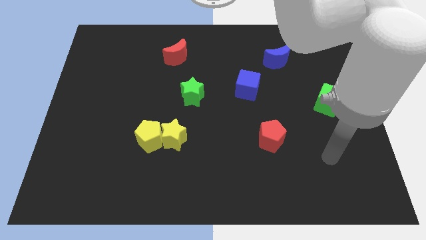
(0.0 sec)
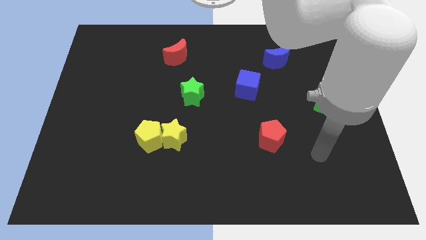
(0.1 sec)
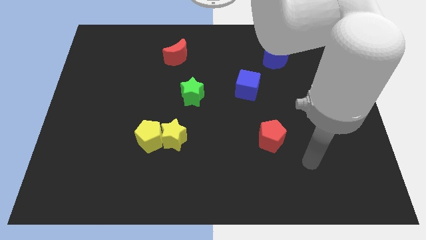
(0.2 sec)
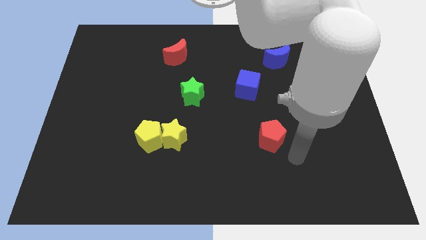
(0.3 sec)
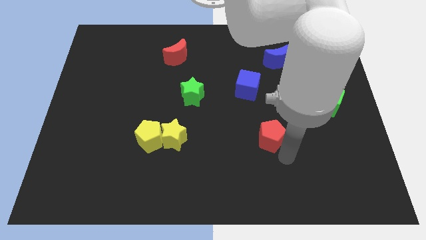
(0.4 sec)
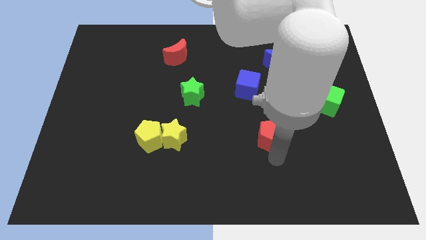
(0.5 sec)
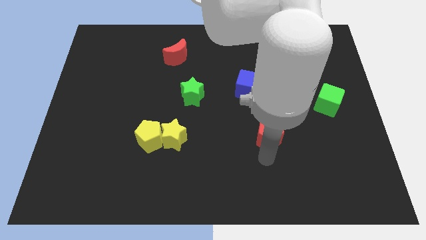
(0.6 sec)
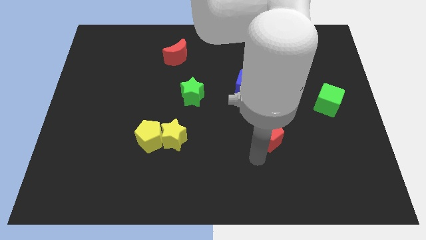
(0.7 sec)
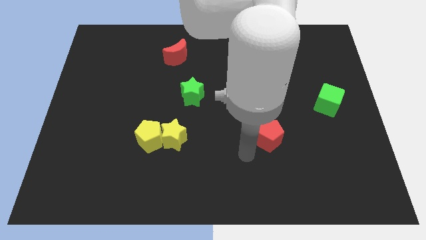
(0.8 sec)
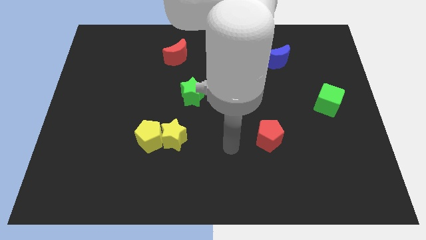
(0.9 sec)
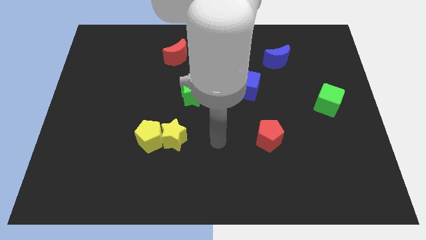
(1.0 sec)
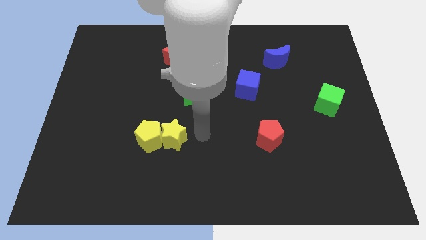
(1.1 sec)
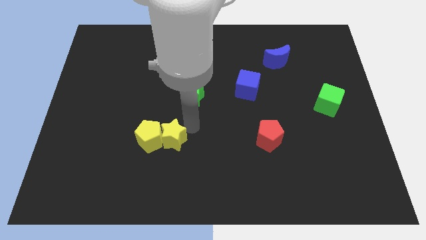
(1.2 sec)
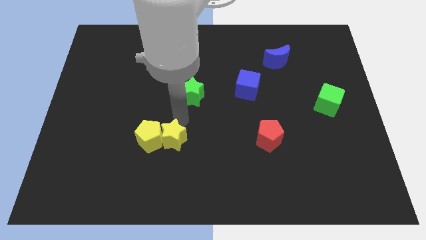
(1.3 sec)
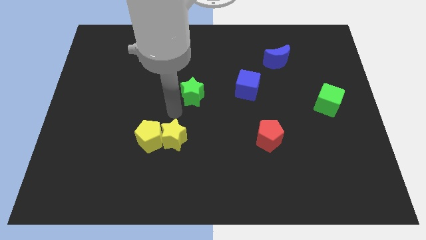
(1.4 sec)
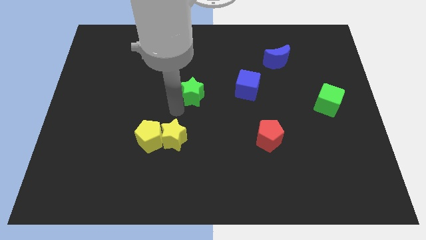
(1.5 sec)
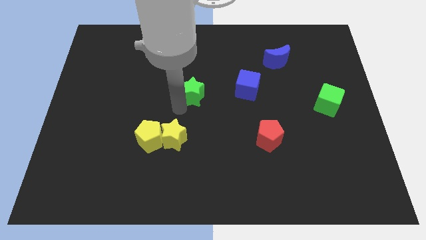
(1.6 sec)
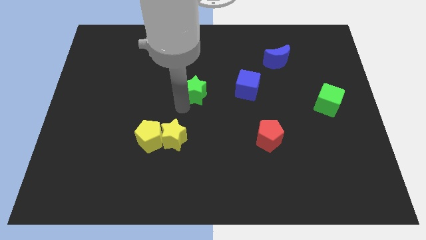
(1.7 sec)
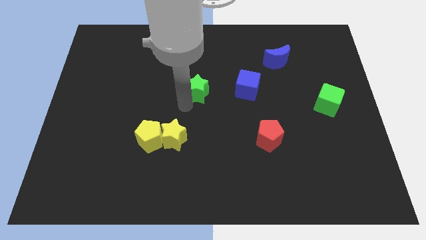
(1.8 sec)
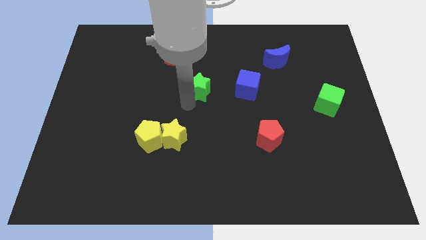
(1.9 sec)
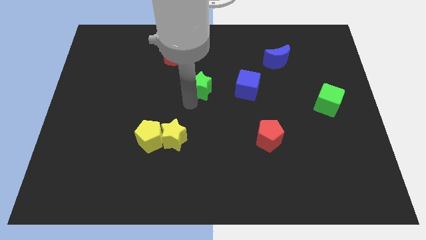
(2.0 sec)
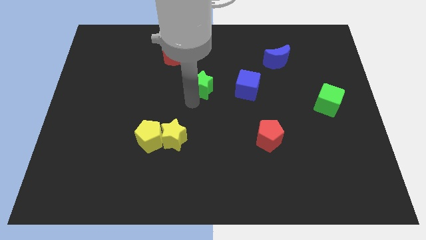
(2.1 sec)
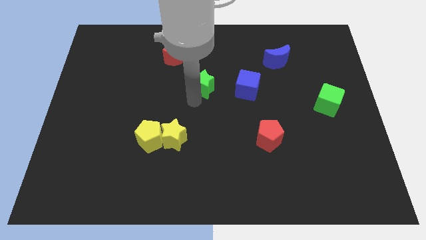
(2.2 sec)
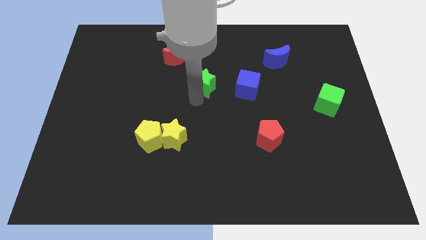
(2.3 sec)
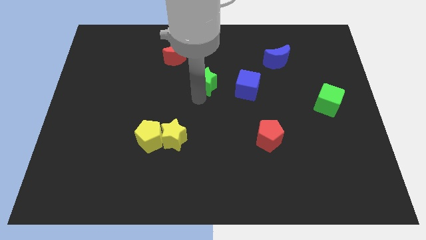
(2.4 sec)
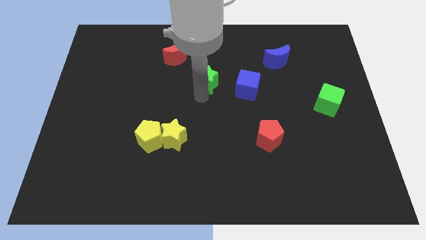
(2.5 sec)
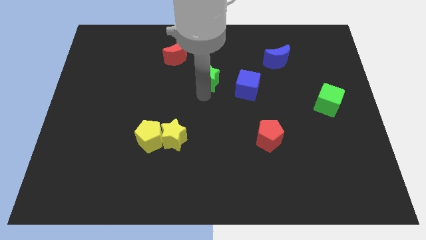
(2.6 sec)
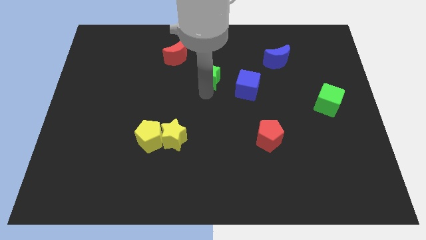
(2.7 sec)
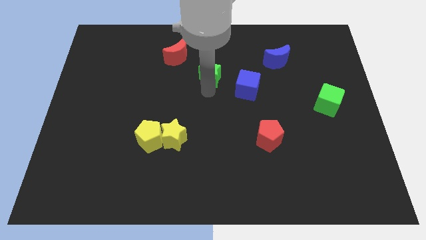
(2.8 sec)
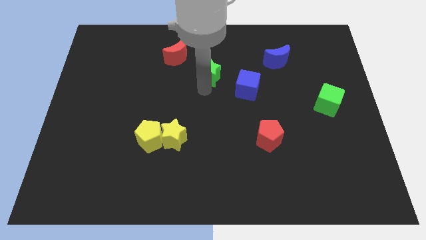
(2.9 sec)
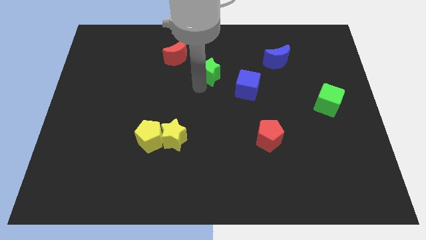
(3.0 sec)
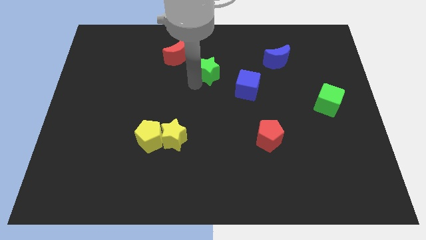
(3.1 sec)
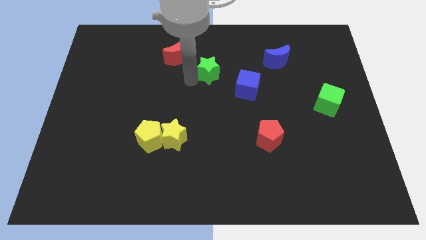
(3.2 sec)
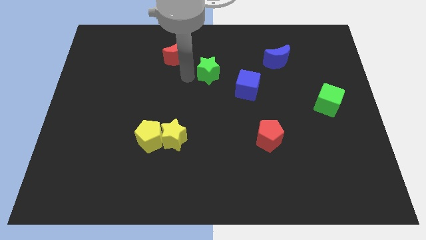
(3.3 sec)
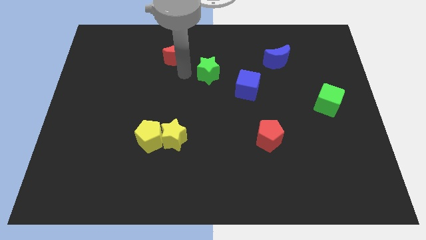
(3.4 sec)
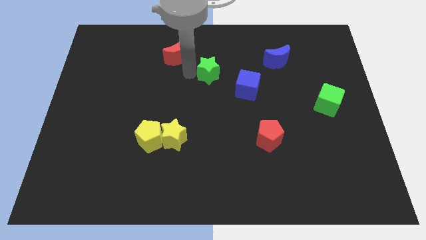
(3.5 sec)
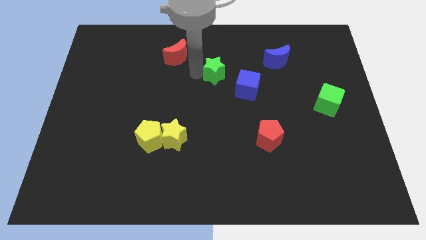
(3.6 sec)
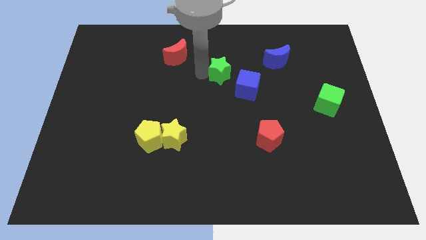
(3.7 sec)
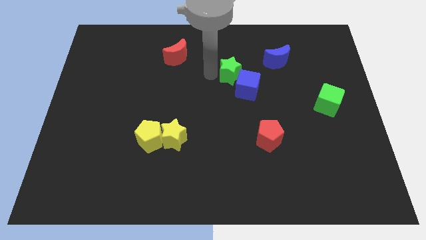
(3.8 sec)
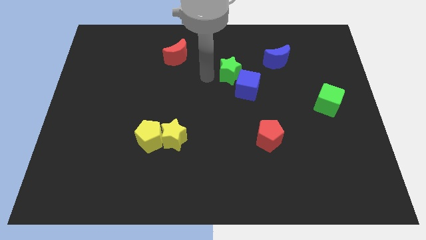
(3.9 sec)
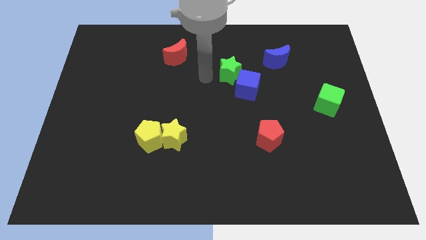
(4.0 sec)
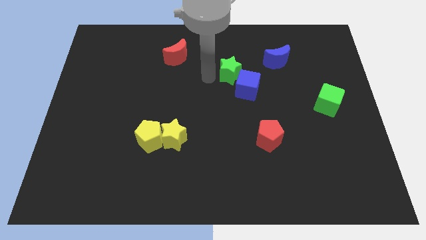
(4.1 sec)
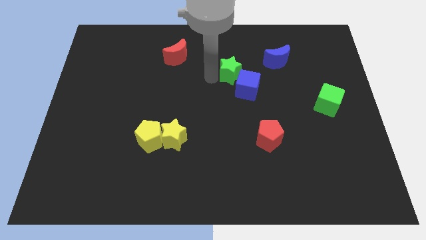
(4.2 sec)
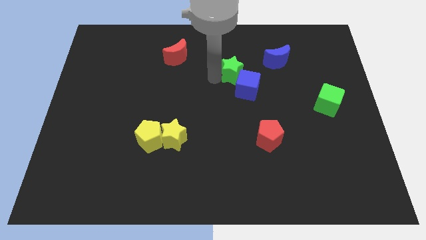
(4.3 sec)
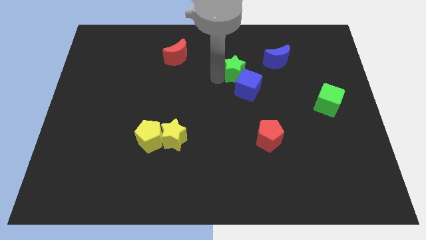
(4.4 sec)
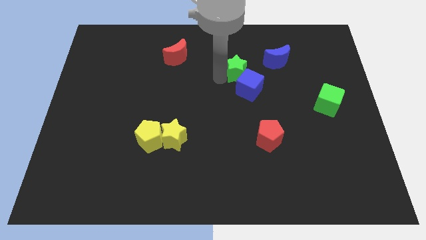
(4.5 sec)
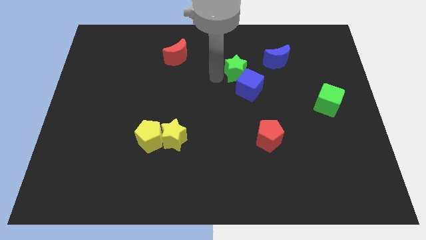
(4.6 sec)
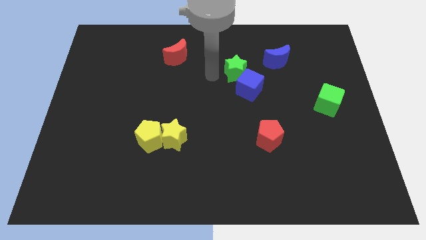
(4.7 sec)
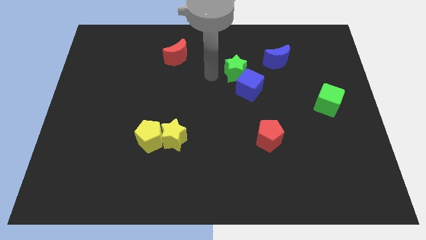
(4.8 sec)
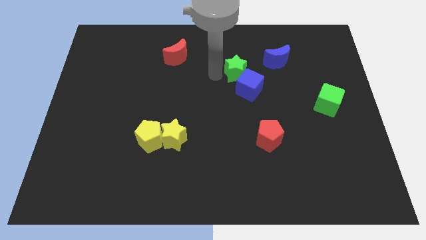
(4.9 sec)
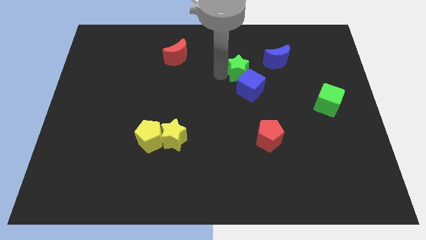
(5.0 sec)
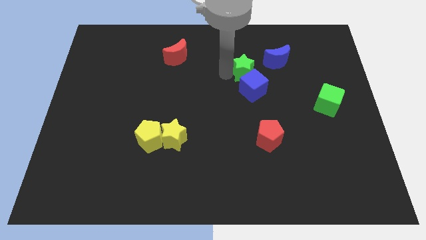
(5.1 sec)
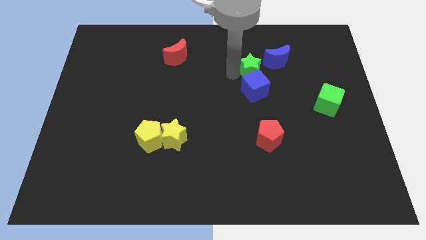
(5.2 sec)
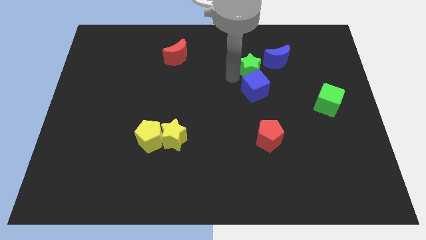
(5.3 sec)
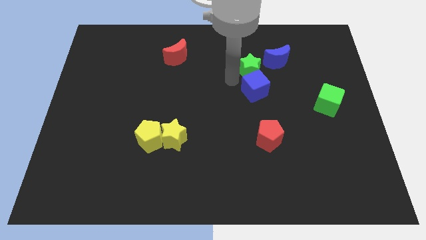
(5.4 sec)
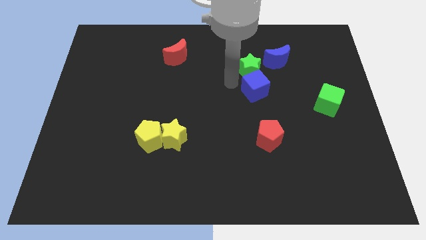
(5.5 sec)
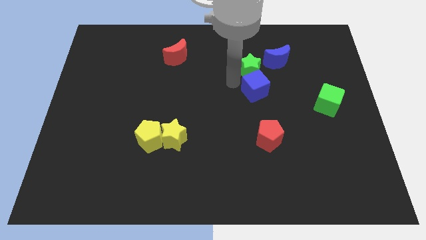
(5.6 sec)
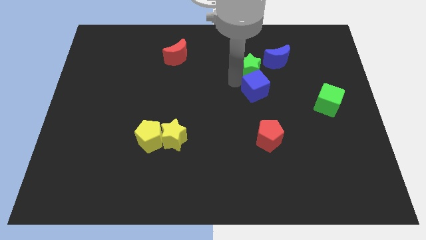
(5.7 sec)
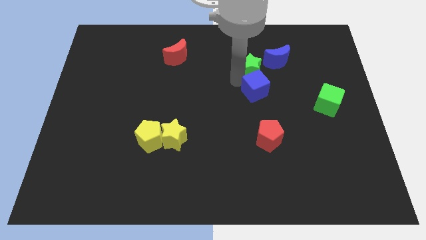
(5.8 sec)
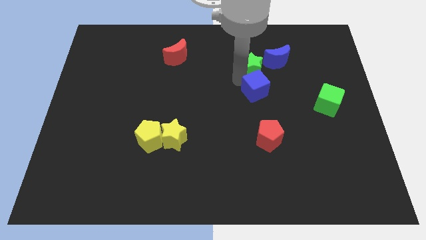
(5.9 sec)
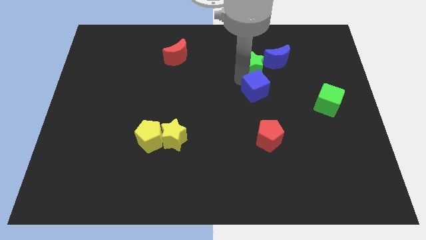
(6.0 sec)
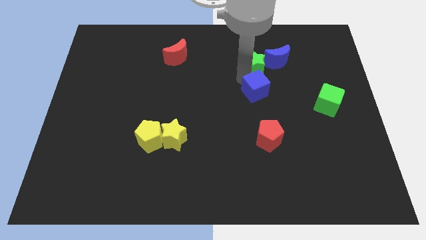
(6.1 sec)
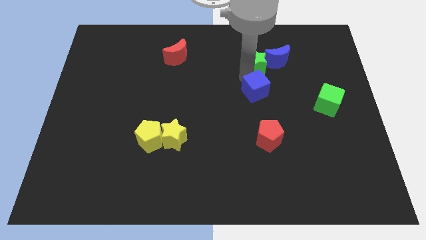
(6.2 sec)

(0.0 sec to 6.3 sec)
slide the green star next to the blue moon

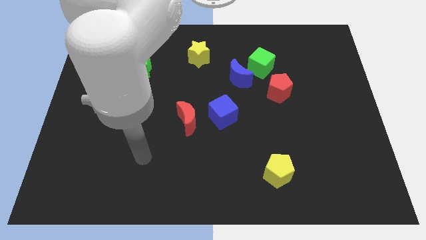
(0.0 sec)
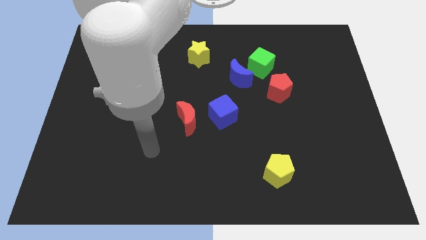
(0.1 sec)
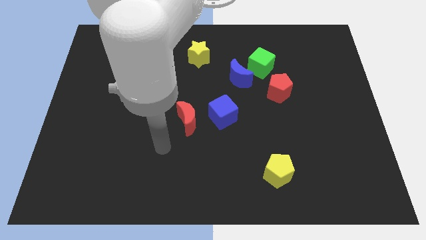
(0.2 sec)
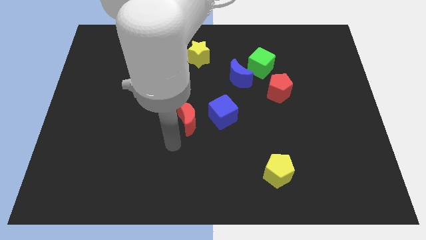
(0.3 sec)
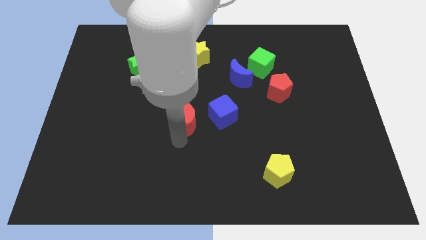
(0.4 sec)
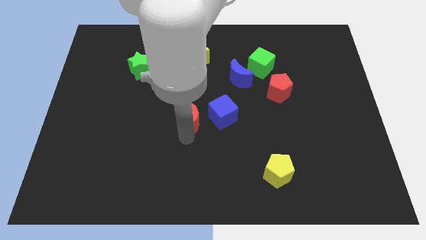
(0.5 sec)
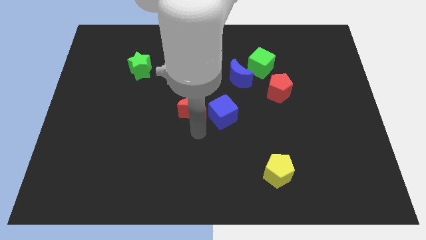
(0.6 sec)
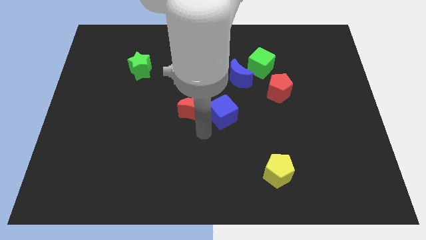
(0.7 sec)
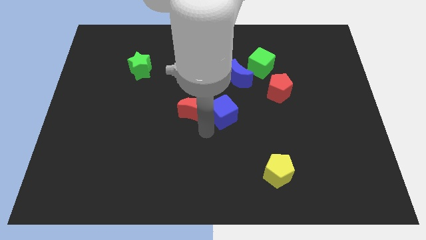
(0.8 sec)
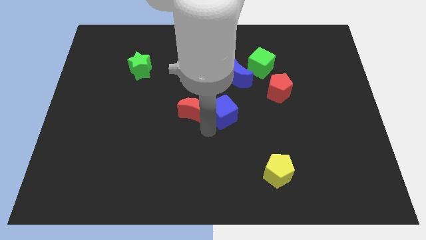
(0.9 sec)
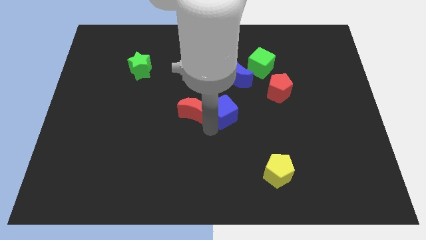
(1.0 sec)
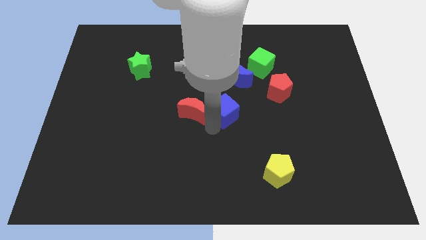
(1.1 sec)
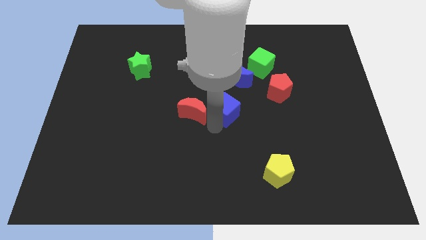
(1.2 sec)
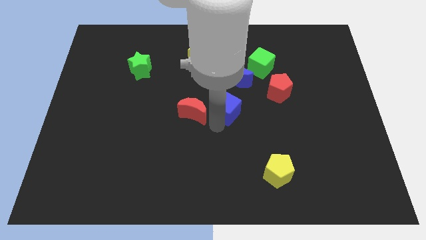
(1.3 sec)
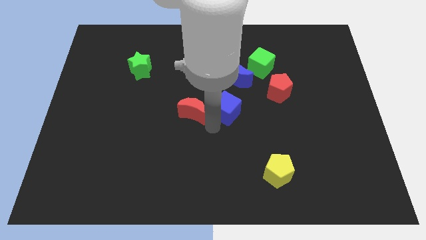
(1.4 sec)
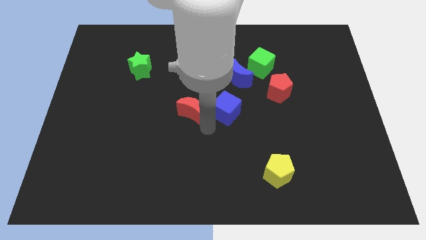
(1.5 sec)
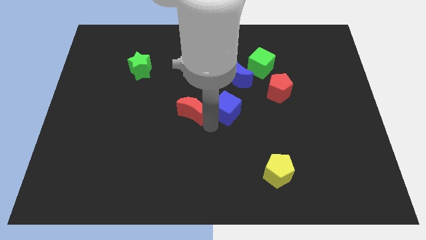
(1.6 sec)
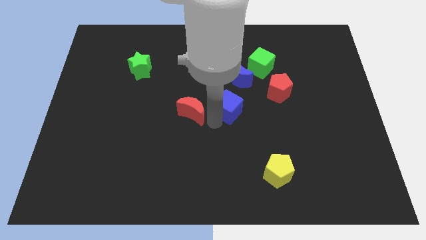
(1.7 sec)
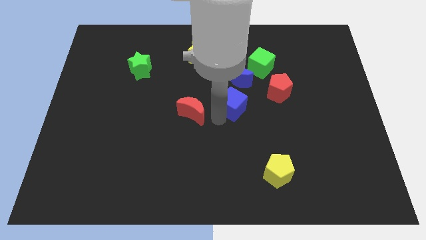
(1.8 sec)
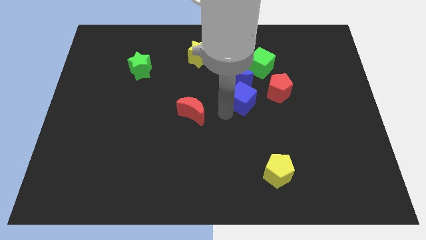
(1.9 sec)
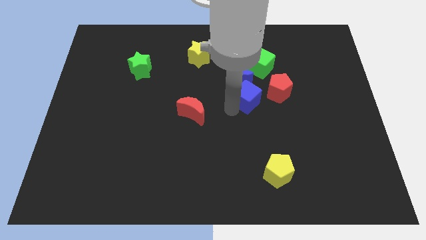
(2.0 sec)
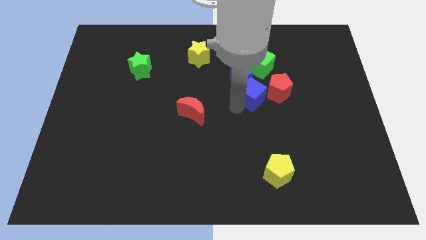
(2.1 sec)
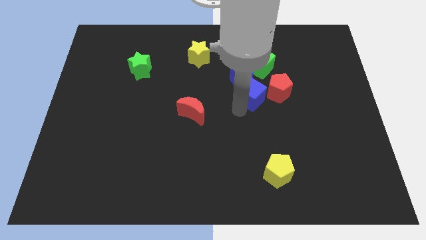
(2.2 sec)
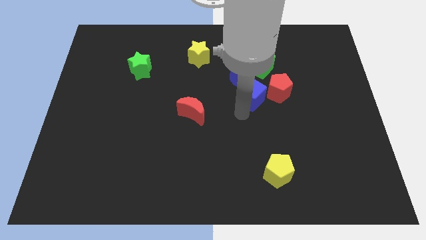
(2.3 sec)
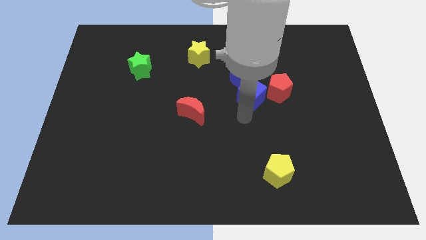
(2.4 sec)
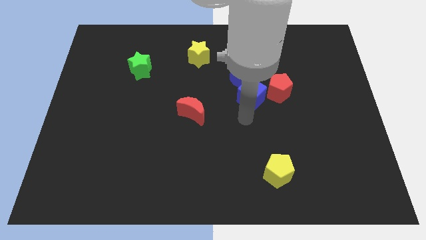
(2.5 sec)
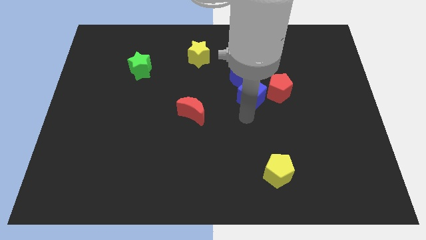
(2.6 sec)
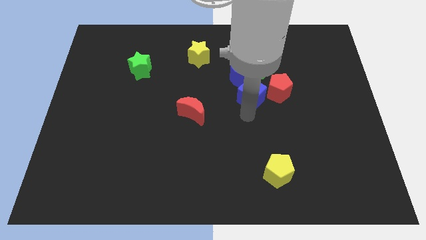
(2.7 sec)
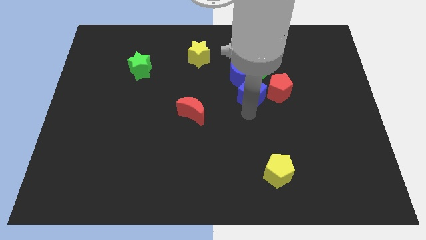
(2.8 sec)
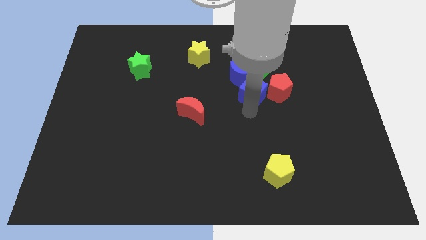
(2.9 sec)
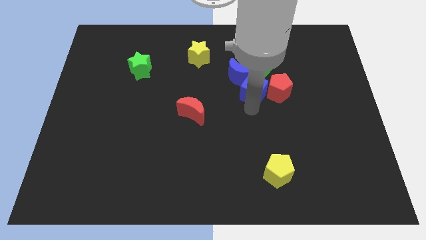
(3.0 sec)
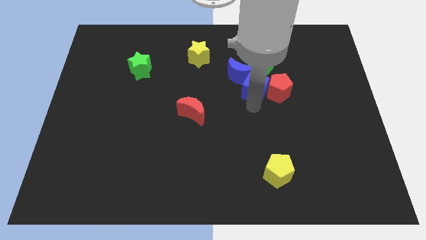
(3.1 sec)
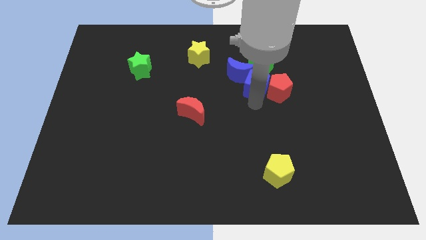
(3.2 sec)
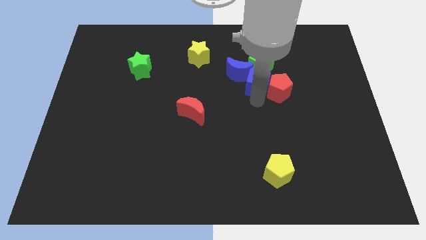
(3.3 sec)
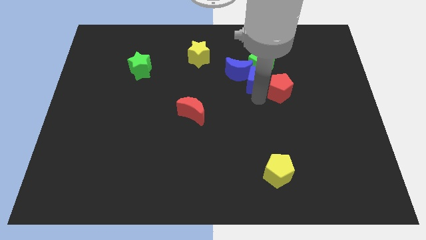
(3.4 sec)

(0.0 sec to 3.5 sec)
slide the blue cube towards the green cube
